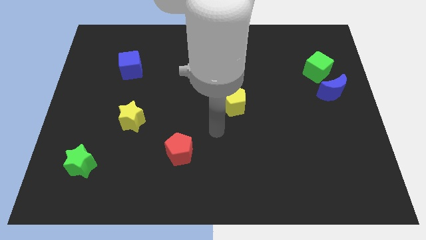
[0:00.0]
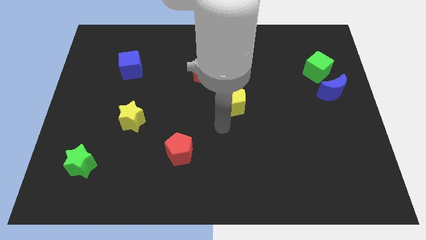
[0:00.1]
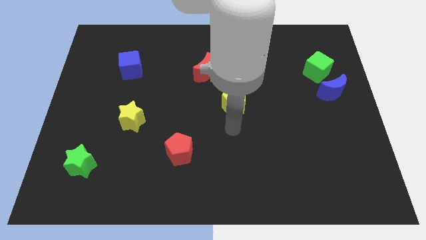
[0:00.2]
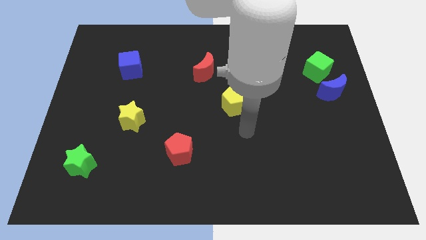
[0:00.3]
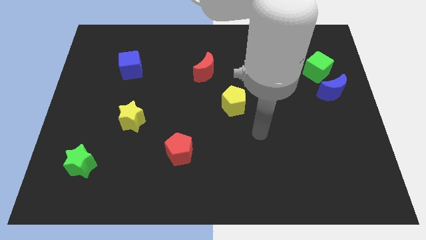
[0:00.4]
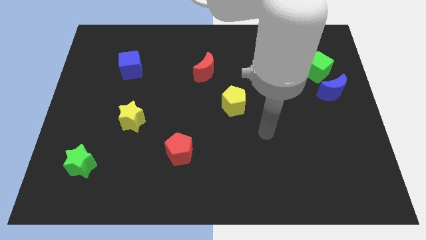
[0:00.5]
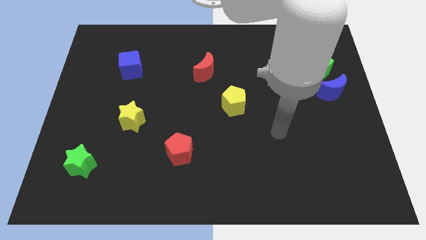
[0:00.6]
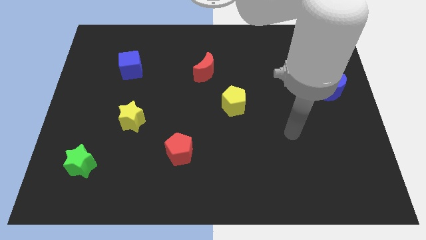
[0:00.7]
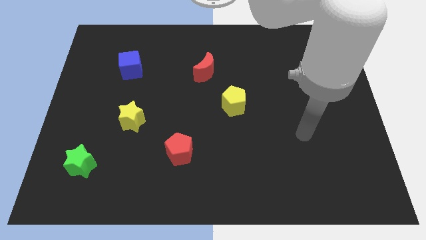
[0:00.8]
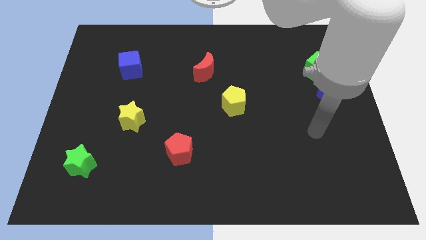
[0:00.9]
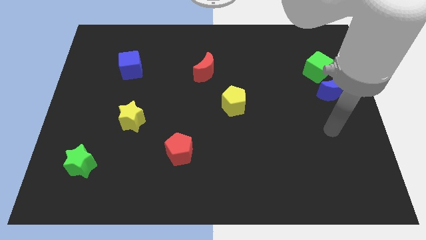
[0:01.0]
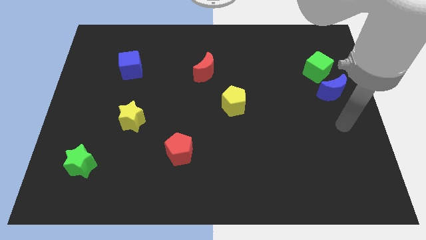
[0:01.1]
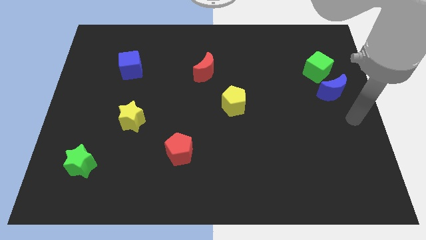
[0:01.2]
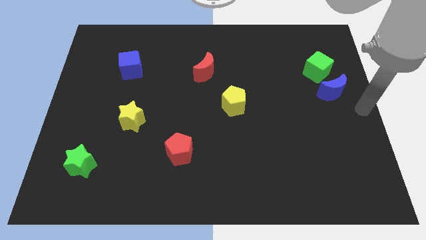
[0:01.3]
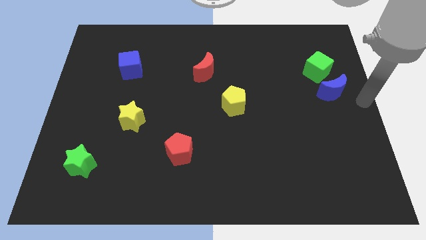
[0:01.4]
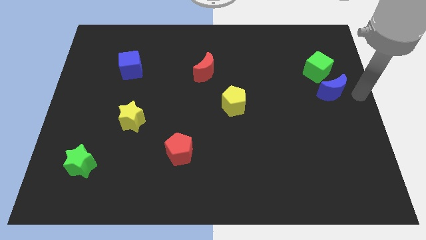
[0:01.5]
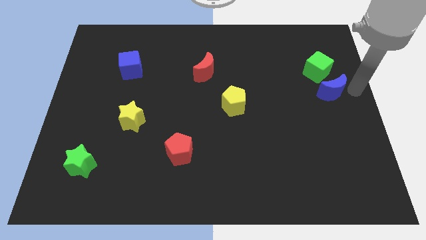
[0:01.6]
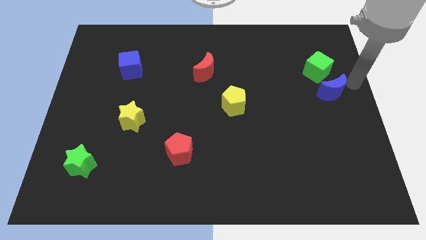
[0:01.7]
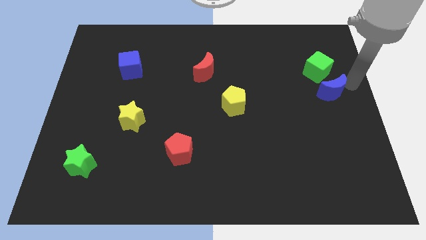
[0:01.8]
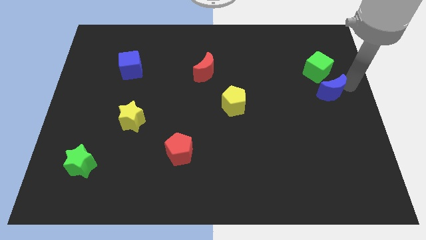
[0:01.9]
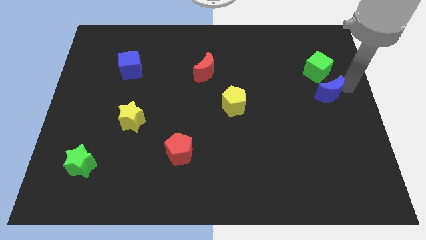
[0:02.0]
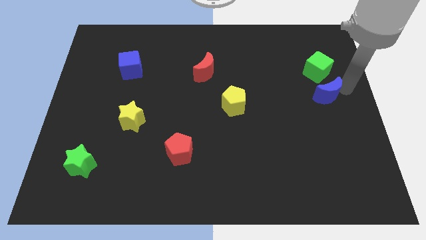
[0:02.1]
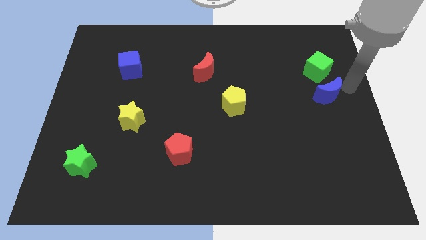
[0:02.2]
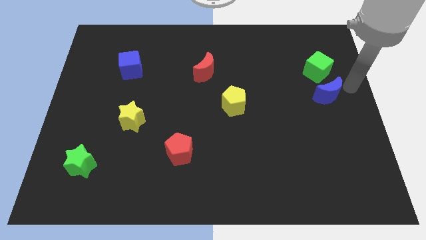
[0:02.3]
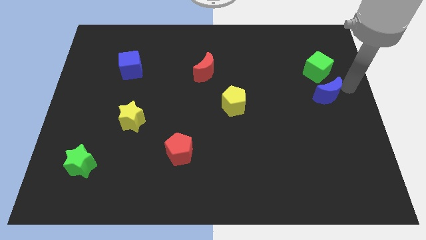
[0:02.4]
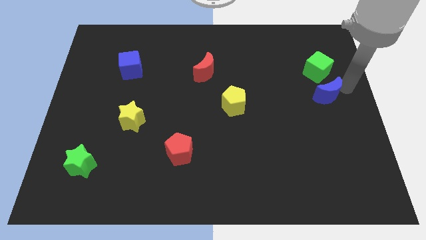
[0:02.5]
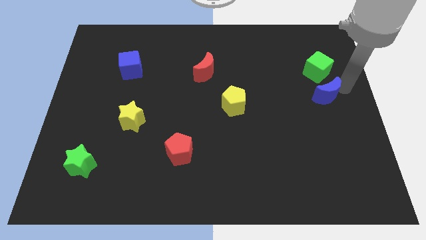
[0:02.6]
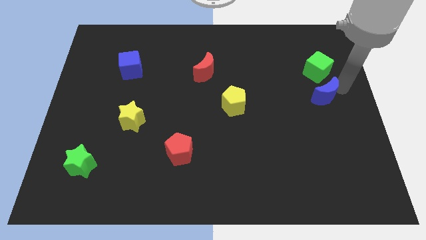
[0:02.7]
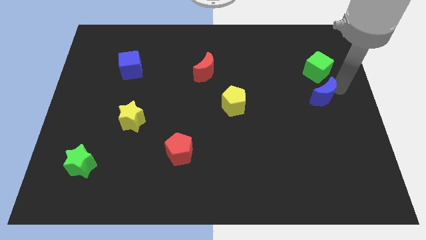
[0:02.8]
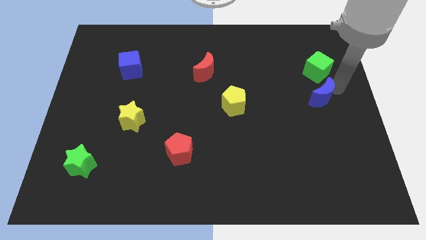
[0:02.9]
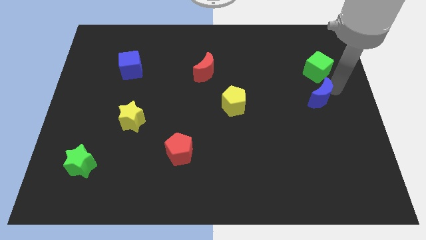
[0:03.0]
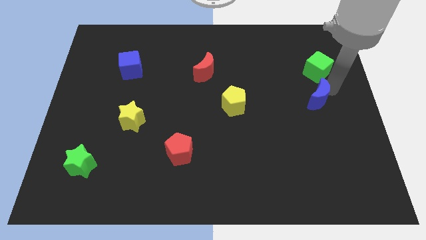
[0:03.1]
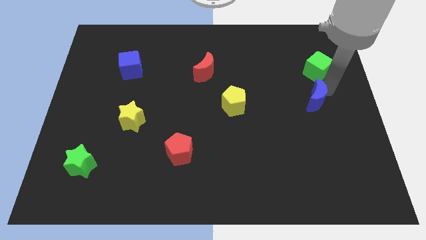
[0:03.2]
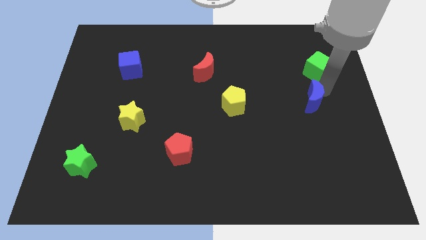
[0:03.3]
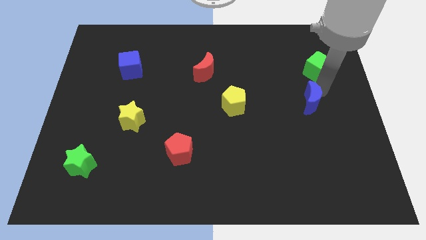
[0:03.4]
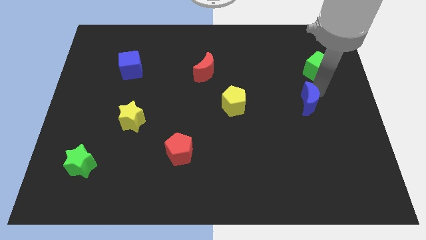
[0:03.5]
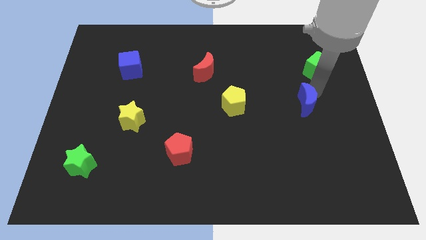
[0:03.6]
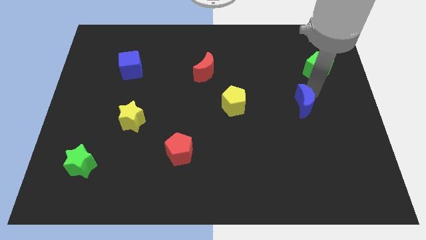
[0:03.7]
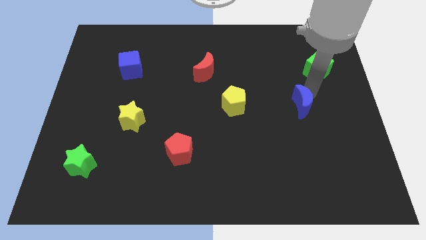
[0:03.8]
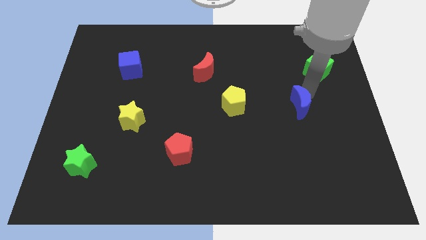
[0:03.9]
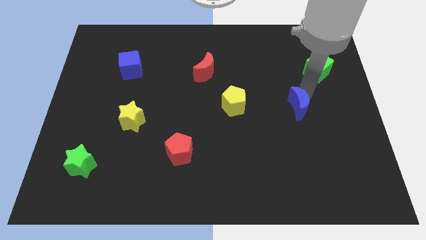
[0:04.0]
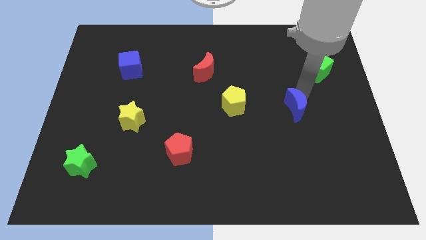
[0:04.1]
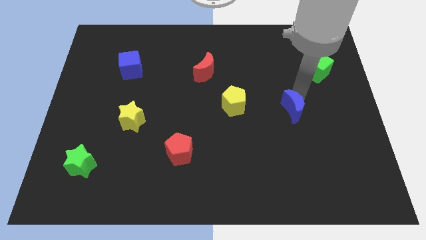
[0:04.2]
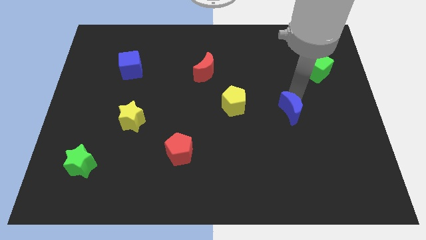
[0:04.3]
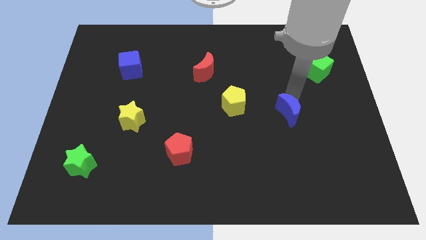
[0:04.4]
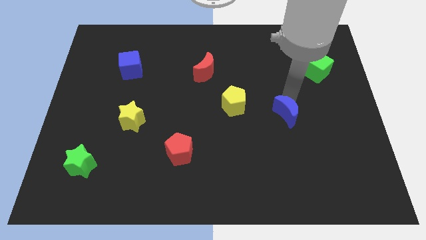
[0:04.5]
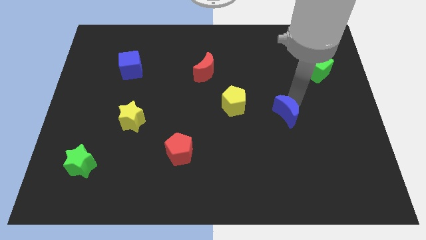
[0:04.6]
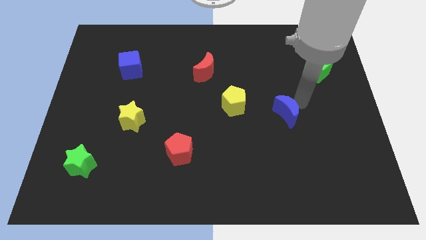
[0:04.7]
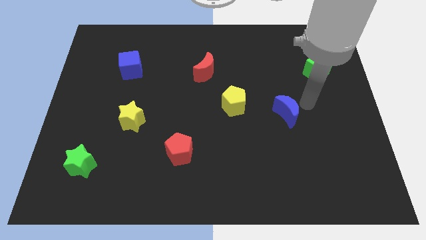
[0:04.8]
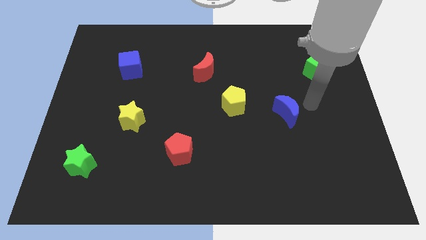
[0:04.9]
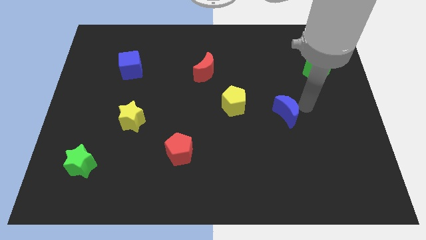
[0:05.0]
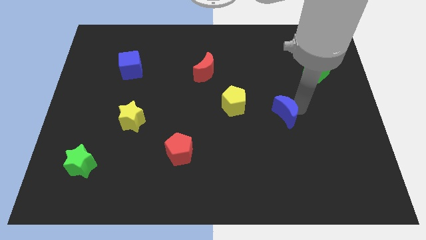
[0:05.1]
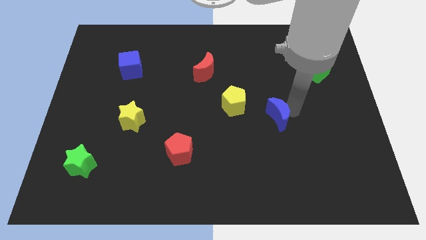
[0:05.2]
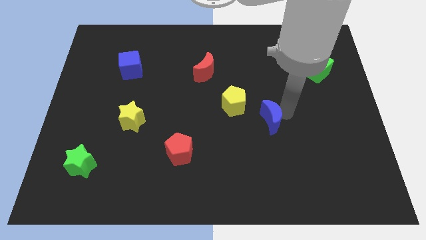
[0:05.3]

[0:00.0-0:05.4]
move the blue moon diagonally down and to the right of the yellow pentagon

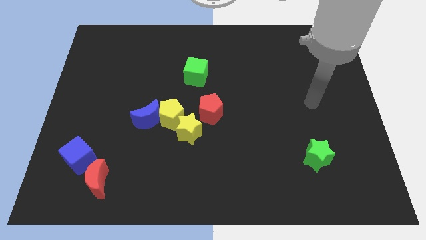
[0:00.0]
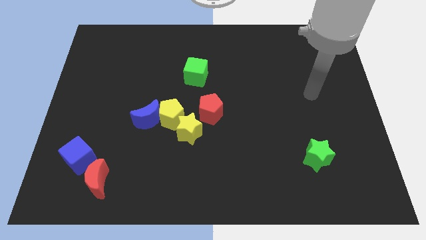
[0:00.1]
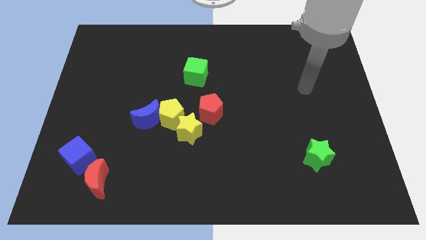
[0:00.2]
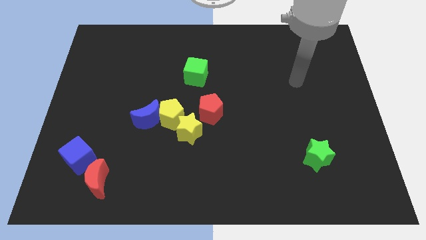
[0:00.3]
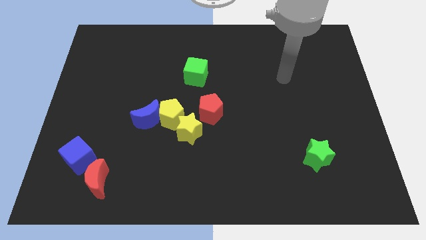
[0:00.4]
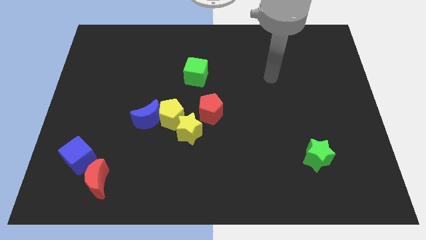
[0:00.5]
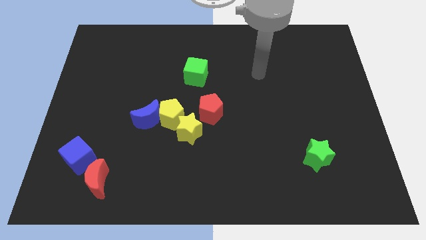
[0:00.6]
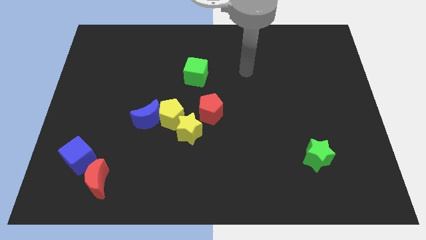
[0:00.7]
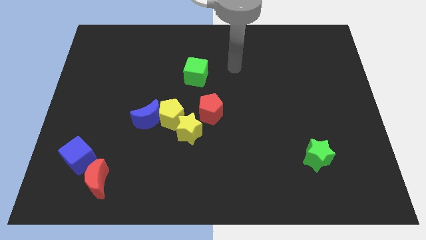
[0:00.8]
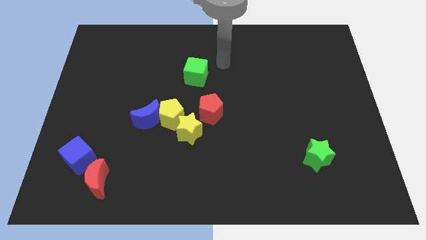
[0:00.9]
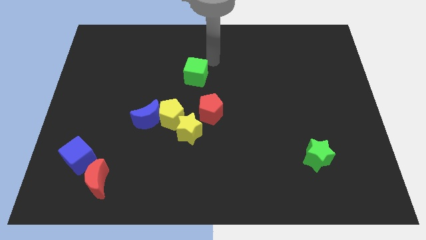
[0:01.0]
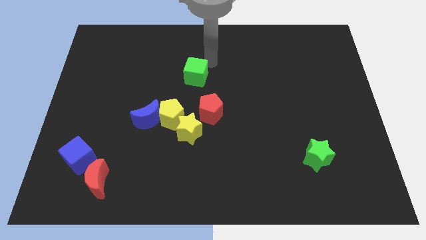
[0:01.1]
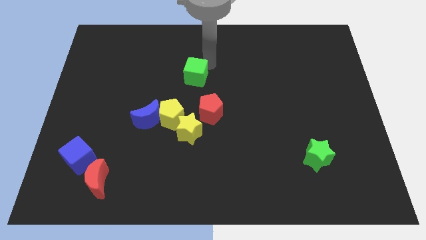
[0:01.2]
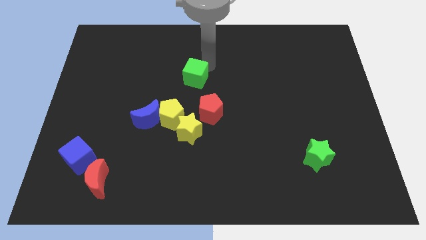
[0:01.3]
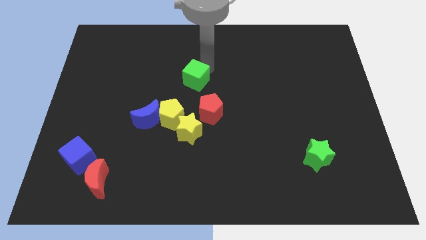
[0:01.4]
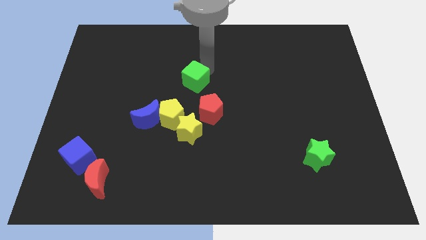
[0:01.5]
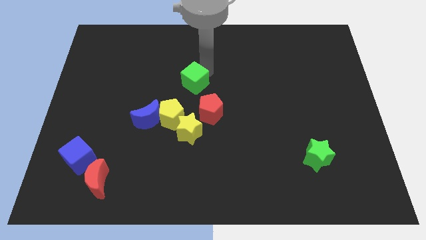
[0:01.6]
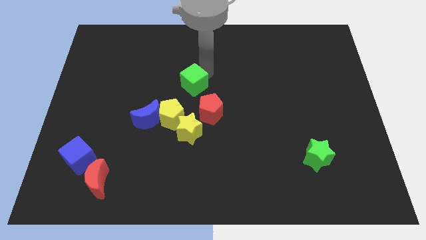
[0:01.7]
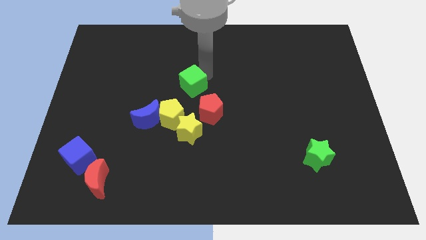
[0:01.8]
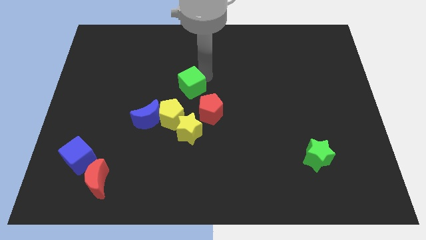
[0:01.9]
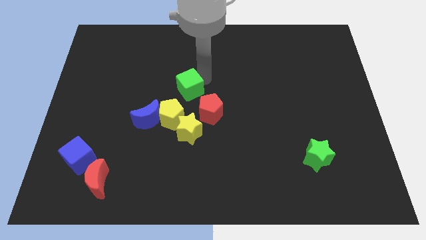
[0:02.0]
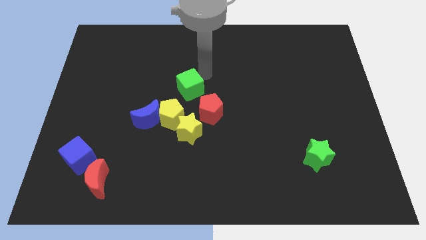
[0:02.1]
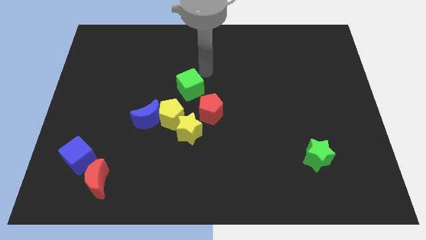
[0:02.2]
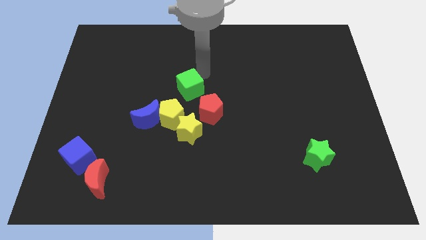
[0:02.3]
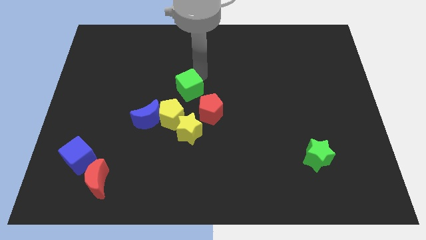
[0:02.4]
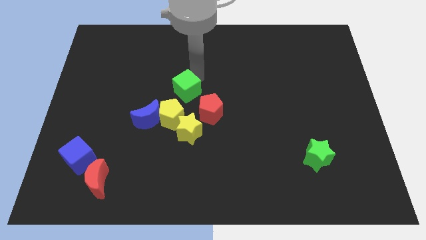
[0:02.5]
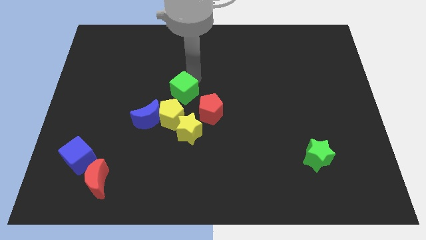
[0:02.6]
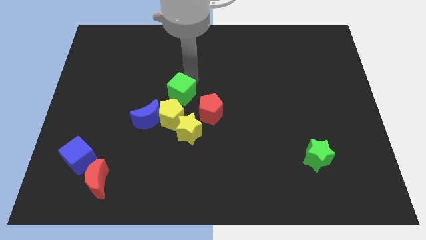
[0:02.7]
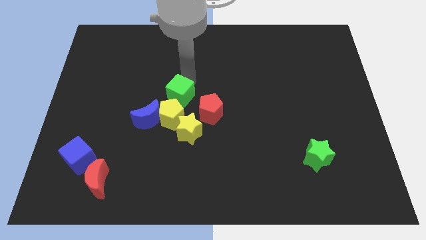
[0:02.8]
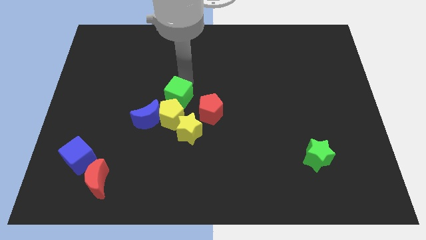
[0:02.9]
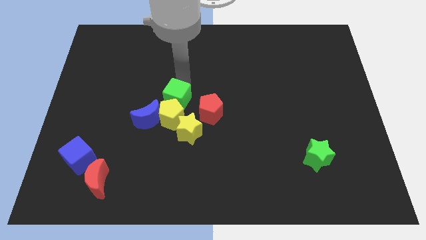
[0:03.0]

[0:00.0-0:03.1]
slide the green cube to the top left side of the yellow star
